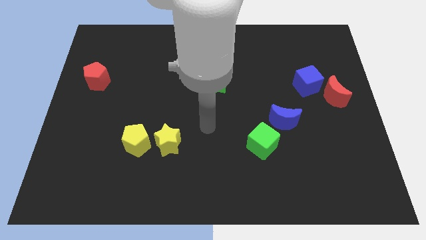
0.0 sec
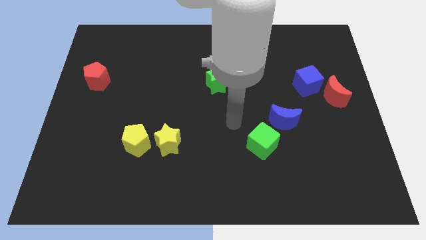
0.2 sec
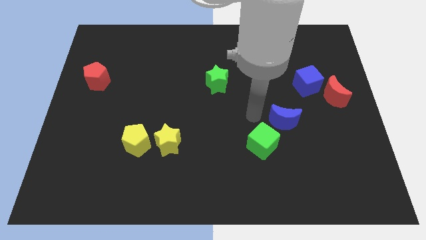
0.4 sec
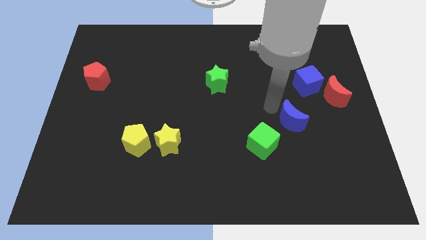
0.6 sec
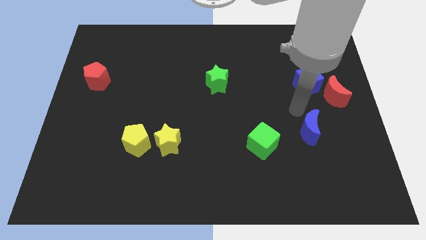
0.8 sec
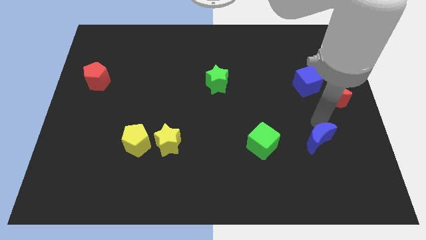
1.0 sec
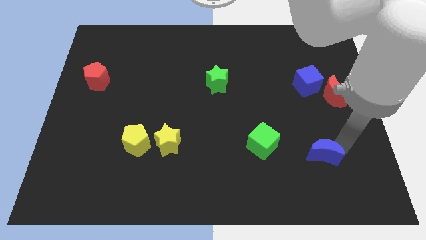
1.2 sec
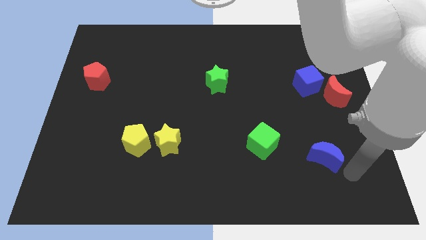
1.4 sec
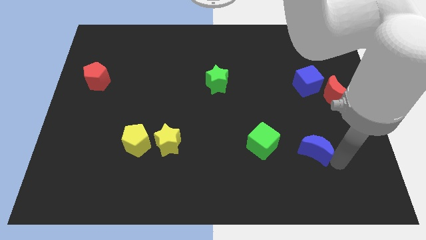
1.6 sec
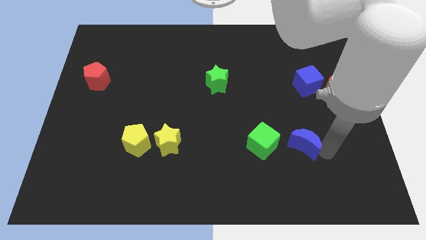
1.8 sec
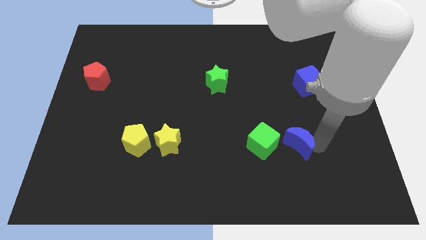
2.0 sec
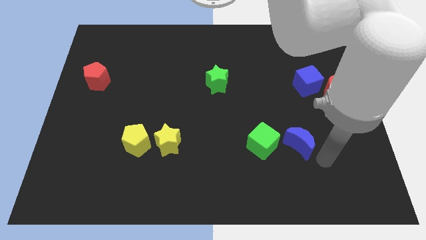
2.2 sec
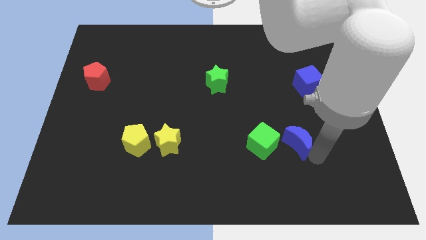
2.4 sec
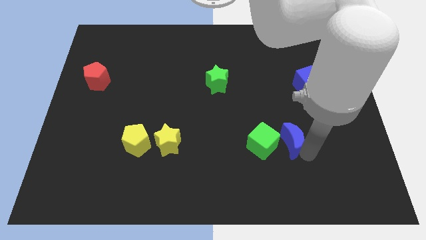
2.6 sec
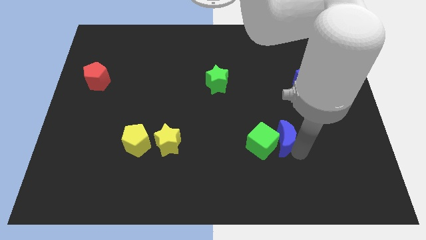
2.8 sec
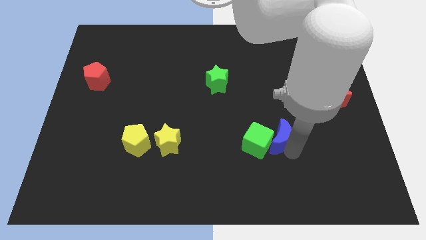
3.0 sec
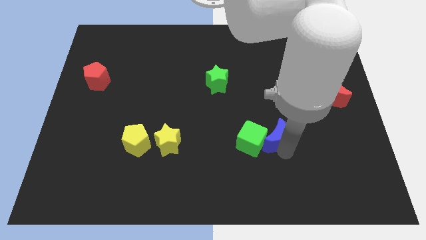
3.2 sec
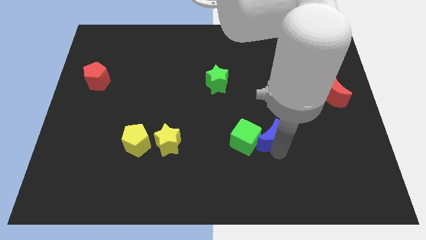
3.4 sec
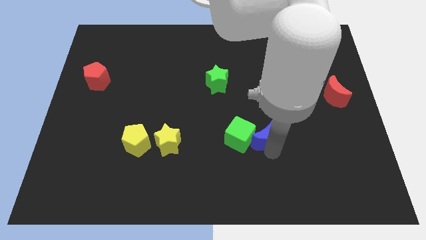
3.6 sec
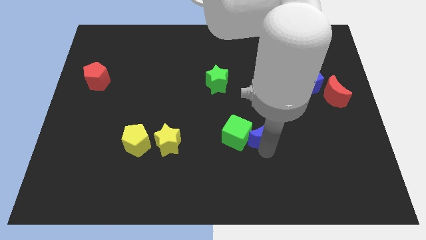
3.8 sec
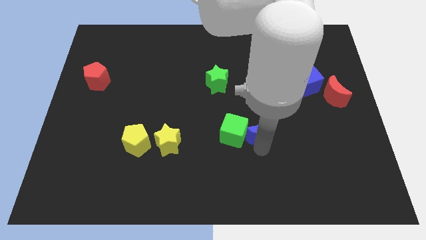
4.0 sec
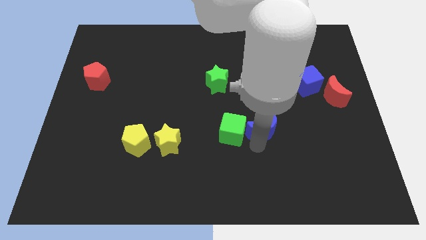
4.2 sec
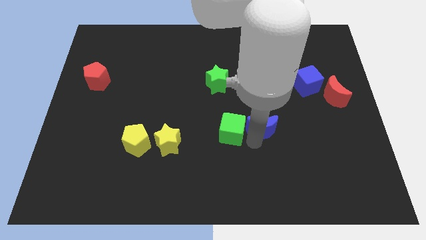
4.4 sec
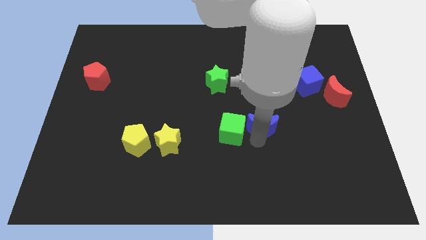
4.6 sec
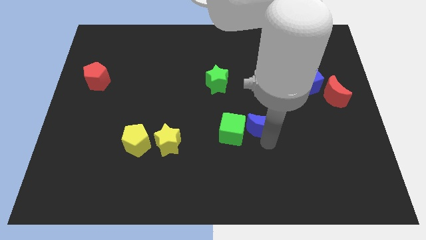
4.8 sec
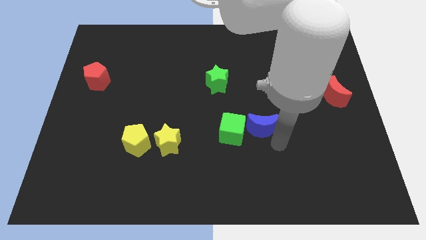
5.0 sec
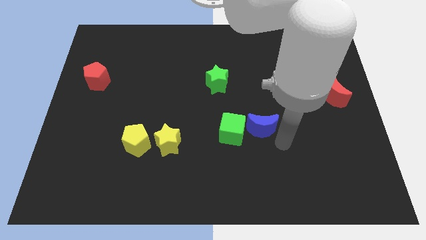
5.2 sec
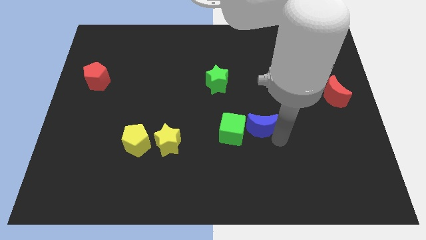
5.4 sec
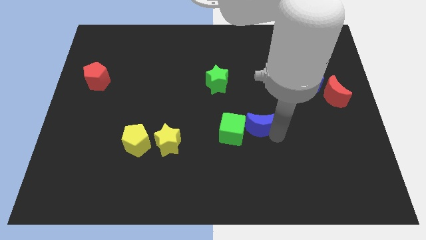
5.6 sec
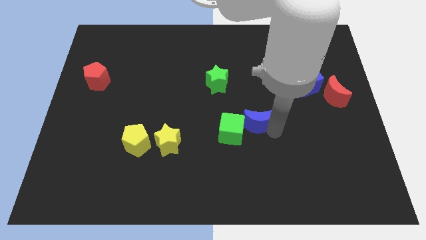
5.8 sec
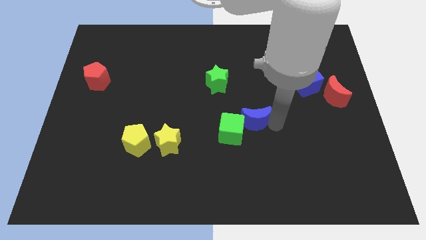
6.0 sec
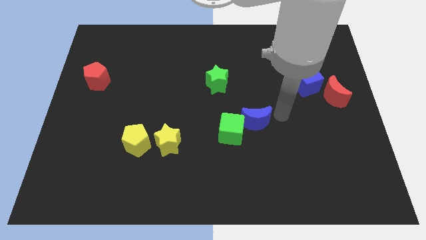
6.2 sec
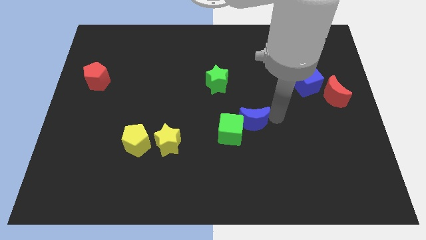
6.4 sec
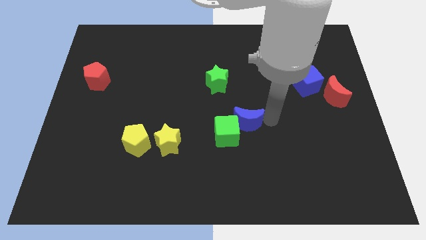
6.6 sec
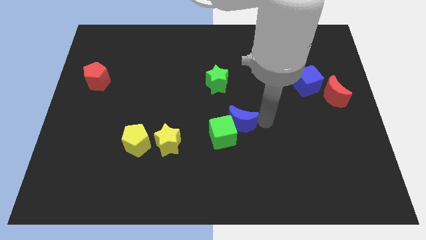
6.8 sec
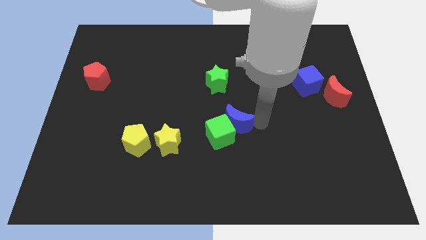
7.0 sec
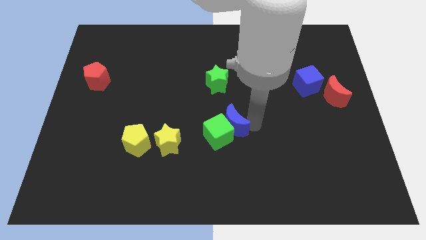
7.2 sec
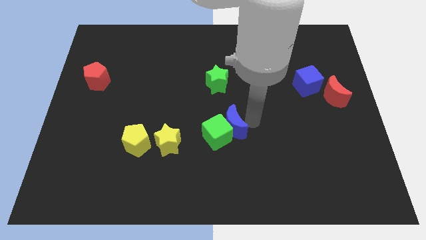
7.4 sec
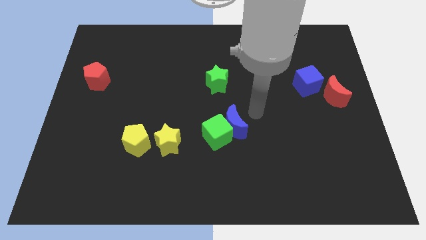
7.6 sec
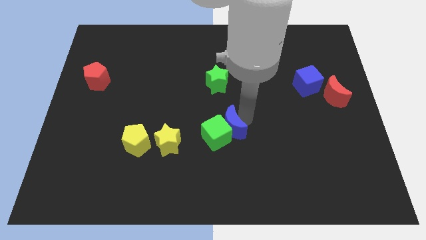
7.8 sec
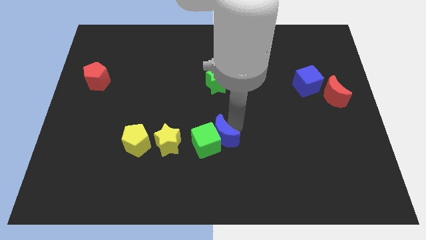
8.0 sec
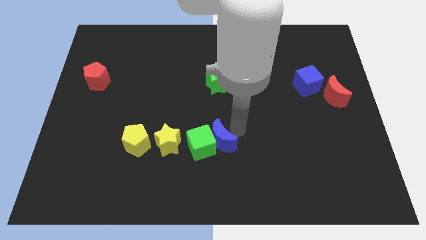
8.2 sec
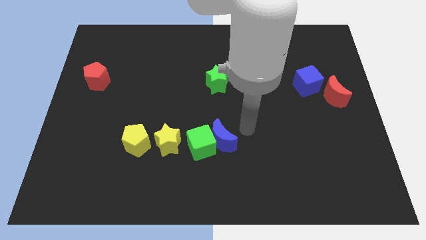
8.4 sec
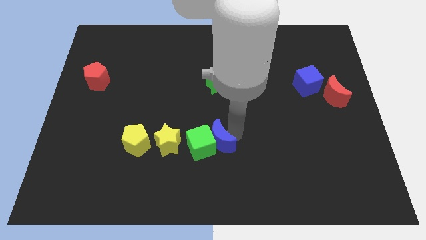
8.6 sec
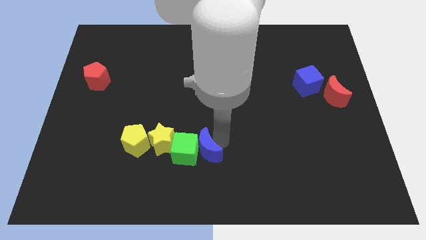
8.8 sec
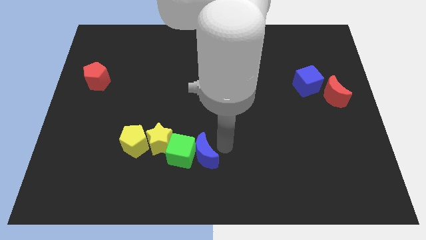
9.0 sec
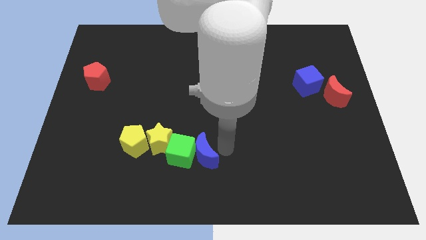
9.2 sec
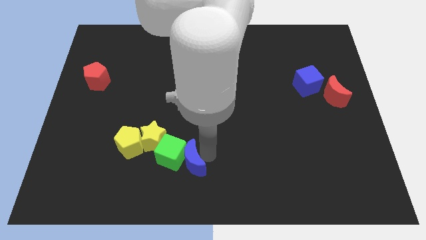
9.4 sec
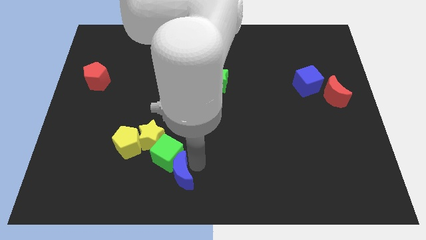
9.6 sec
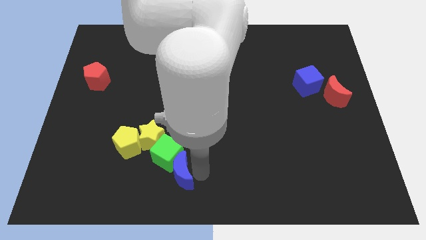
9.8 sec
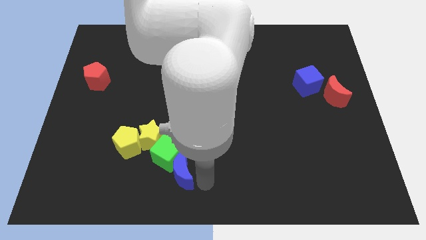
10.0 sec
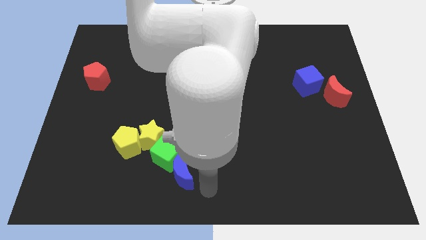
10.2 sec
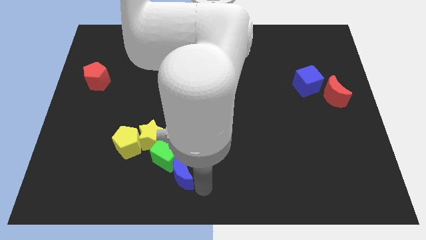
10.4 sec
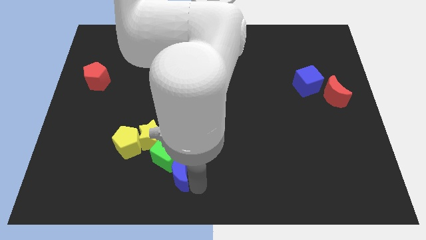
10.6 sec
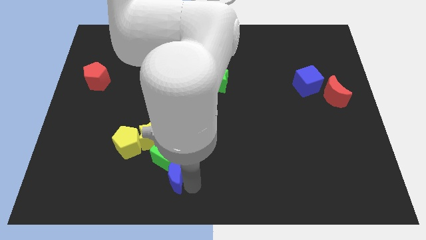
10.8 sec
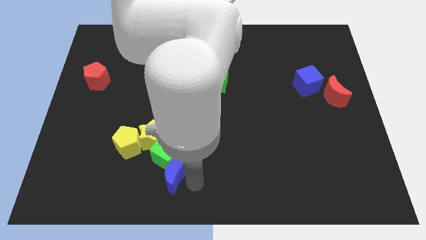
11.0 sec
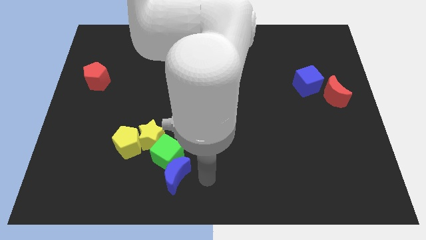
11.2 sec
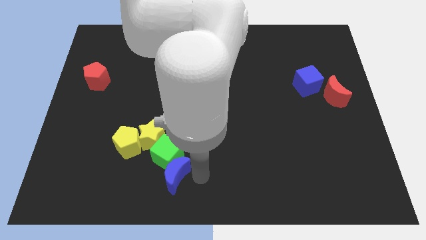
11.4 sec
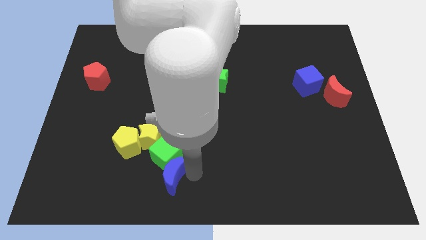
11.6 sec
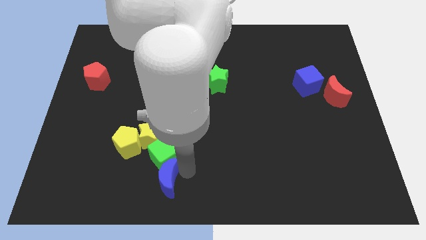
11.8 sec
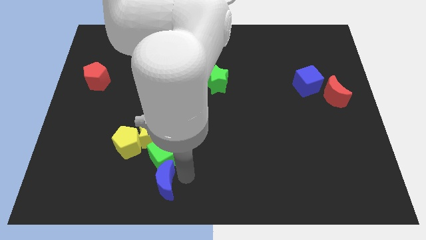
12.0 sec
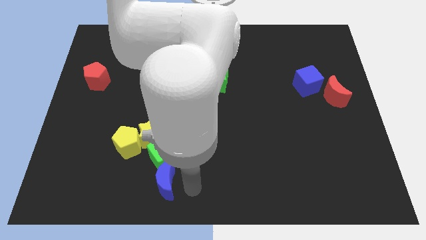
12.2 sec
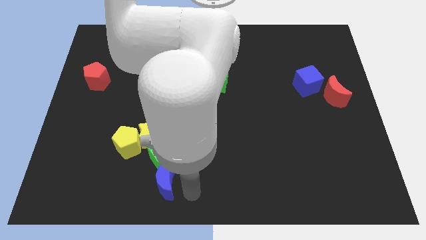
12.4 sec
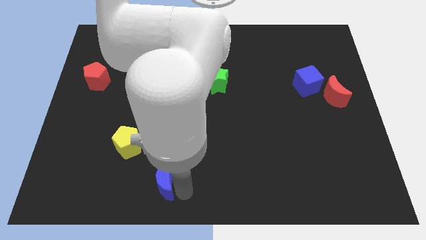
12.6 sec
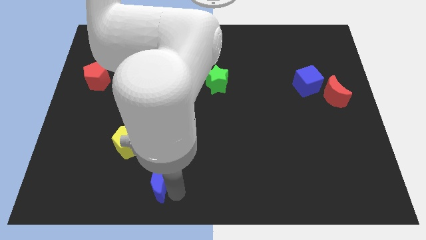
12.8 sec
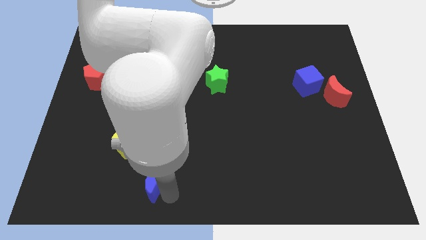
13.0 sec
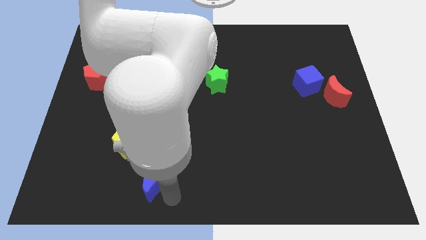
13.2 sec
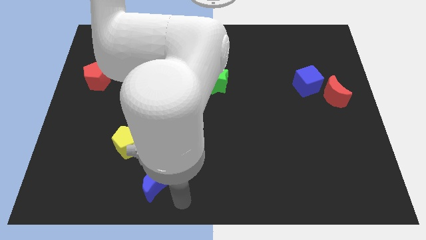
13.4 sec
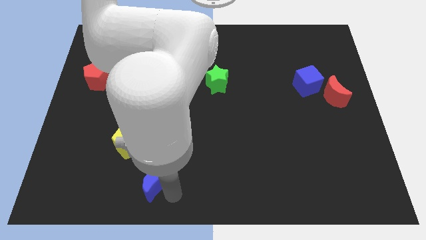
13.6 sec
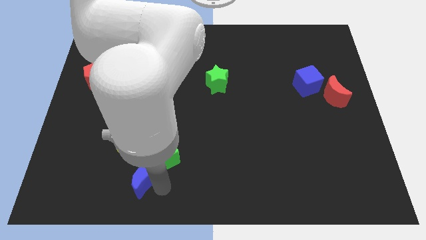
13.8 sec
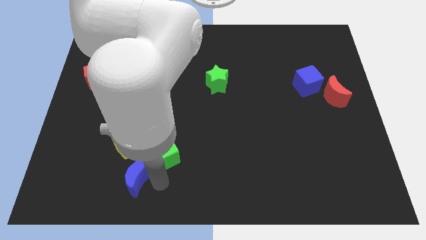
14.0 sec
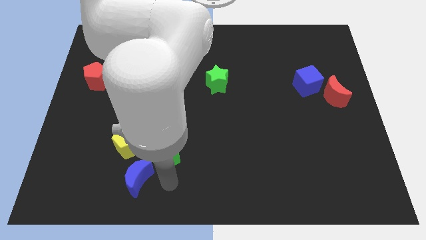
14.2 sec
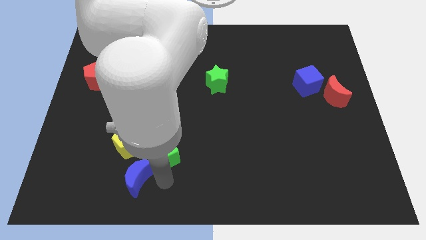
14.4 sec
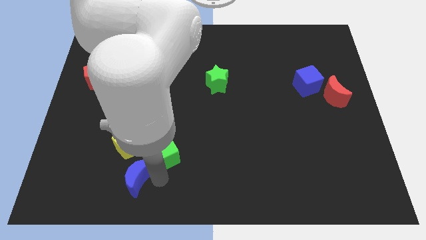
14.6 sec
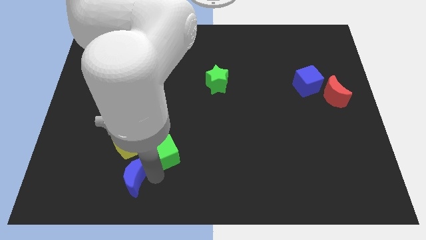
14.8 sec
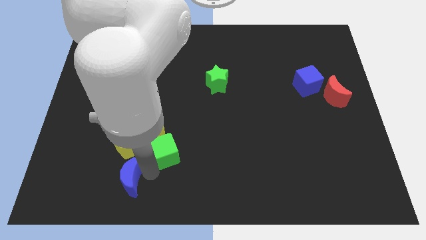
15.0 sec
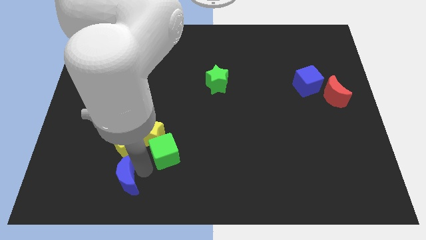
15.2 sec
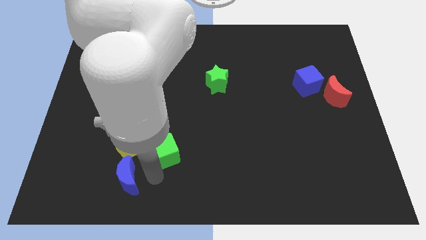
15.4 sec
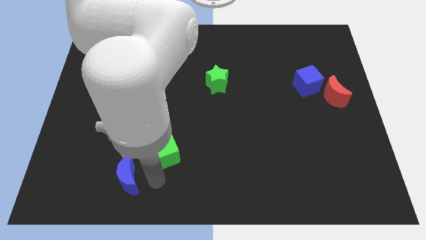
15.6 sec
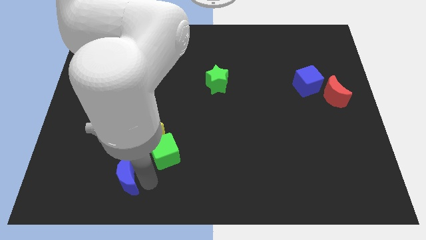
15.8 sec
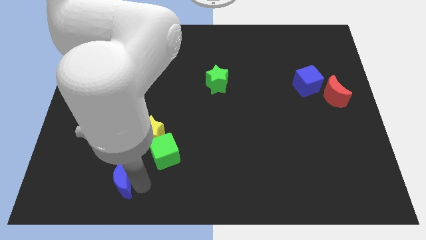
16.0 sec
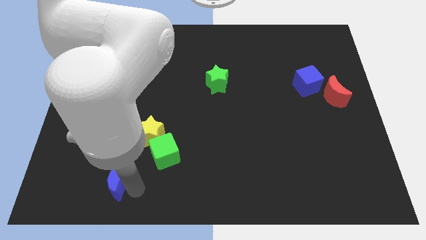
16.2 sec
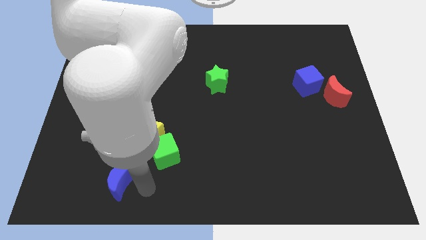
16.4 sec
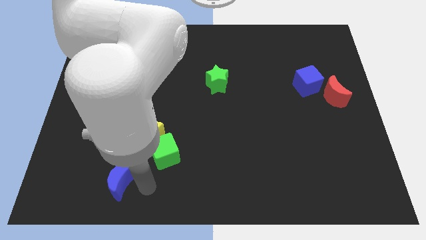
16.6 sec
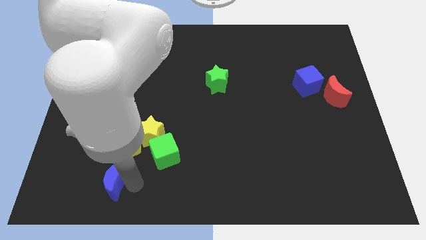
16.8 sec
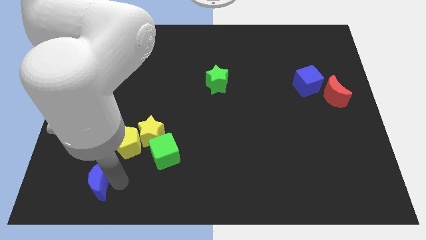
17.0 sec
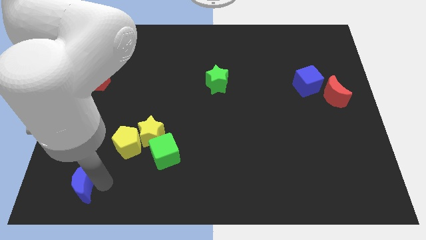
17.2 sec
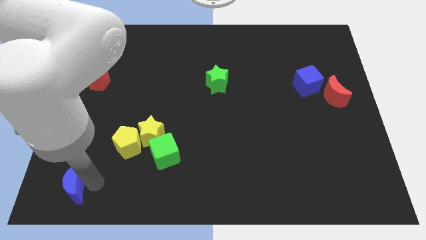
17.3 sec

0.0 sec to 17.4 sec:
move the blue moon to the bottom left
